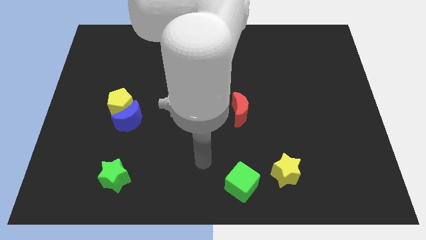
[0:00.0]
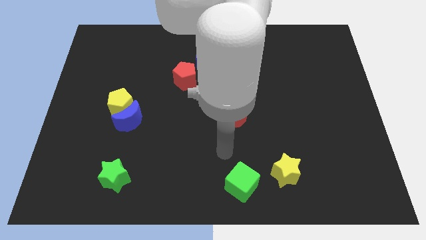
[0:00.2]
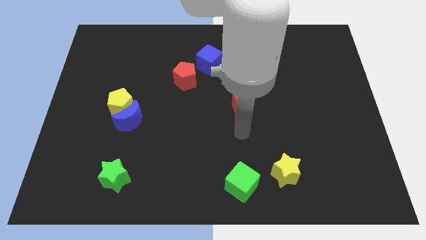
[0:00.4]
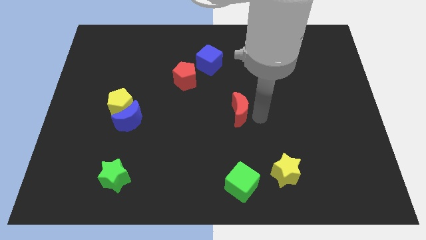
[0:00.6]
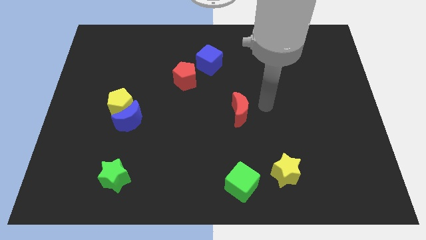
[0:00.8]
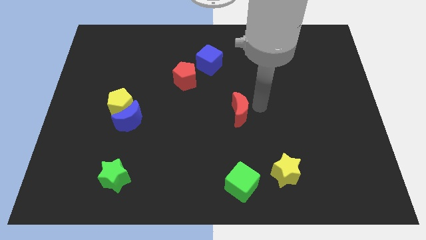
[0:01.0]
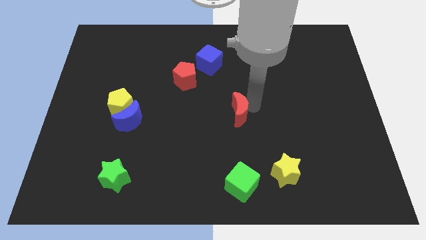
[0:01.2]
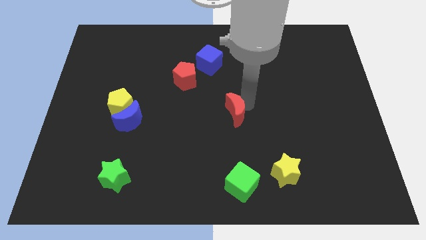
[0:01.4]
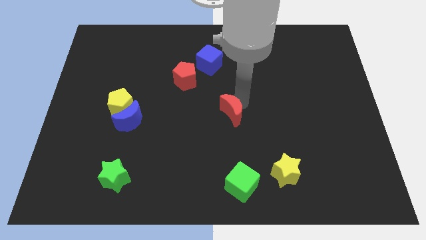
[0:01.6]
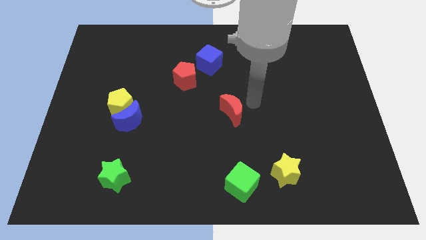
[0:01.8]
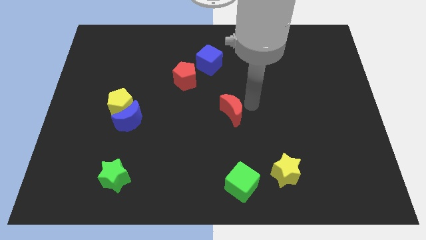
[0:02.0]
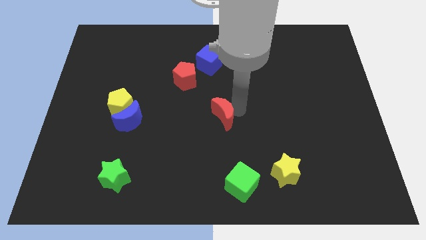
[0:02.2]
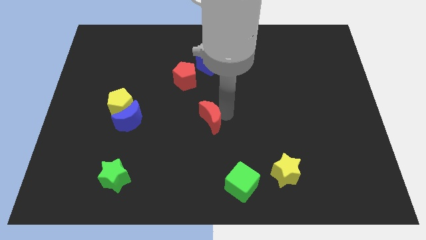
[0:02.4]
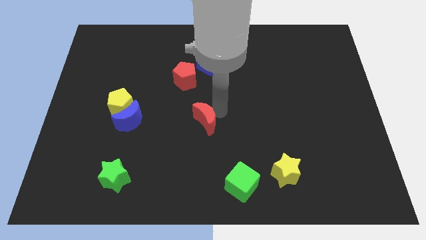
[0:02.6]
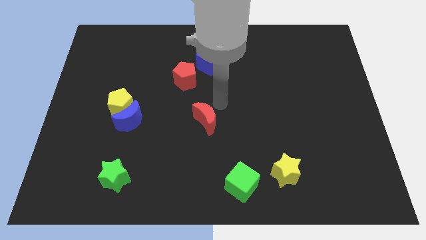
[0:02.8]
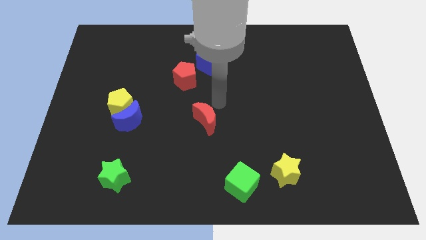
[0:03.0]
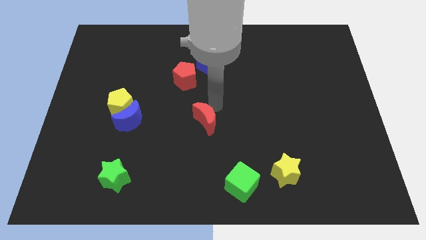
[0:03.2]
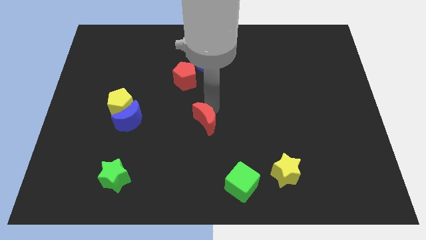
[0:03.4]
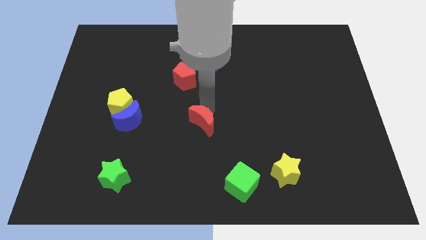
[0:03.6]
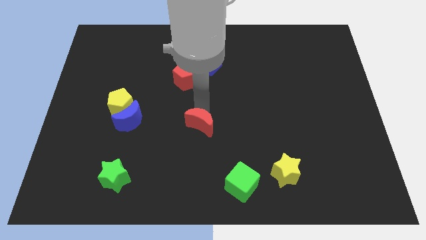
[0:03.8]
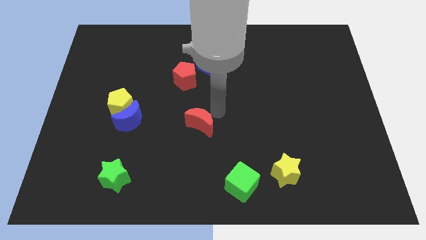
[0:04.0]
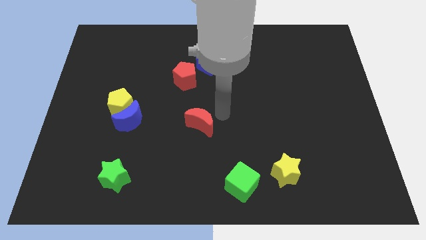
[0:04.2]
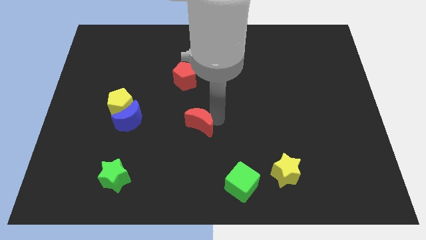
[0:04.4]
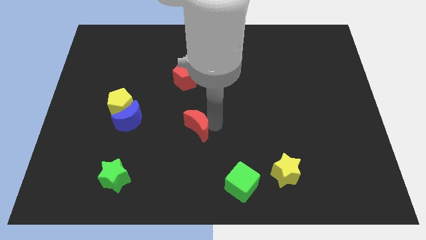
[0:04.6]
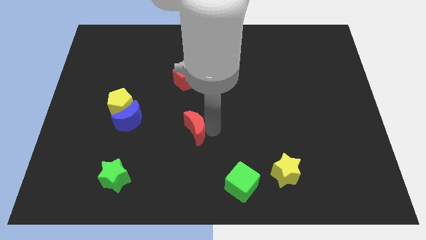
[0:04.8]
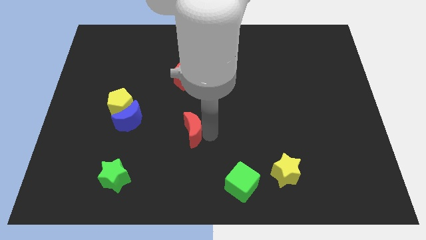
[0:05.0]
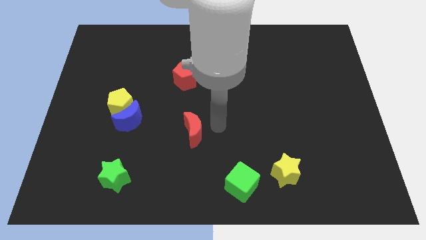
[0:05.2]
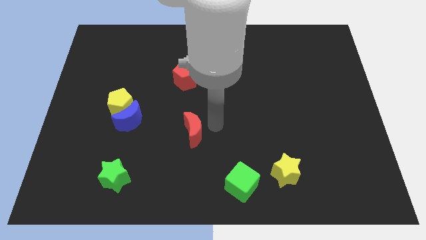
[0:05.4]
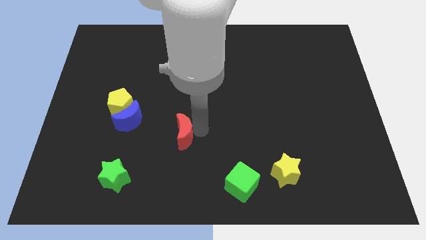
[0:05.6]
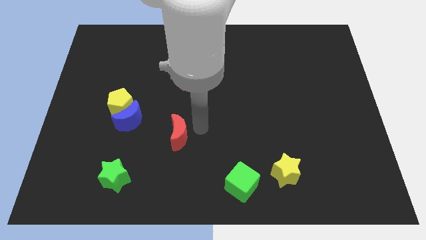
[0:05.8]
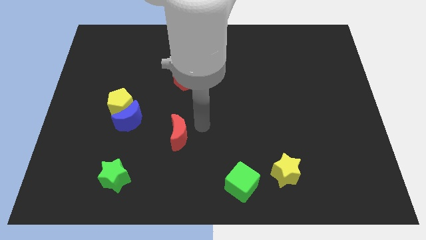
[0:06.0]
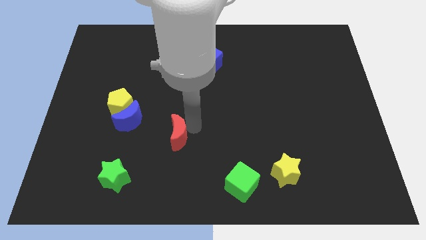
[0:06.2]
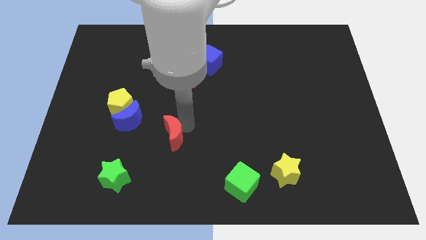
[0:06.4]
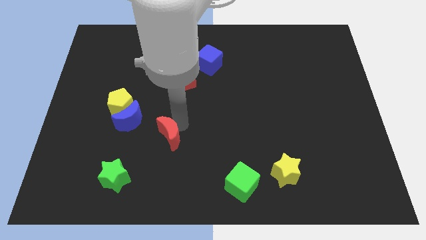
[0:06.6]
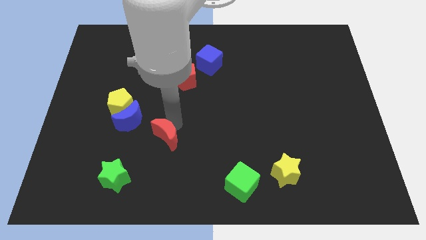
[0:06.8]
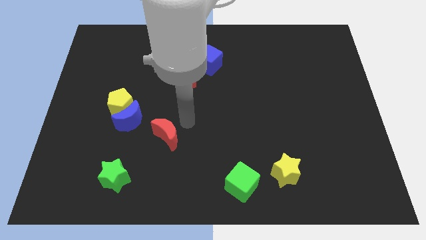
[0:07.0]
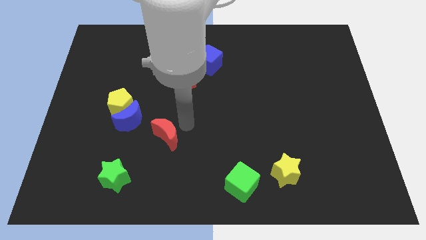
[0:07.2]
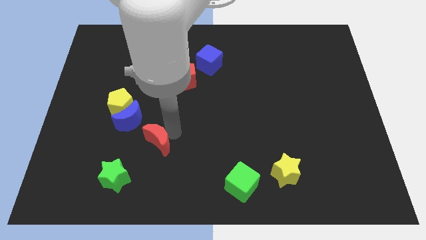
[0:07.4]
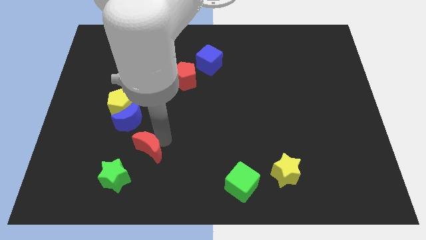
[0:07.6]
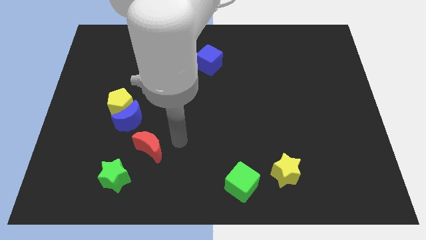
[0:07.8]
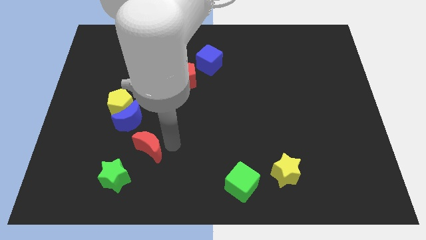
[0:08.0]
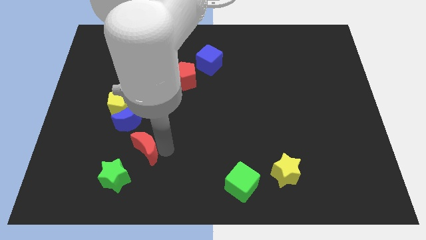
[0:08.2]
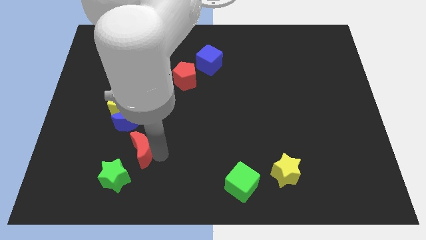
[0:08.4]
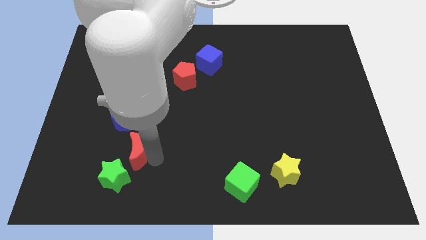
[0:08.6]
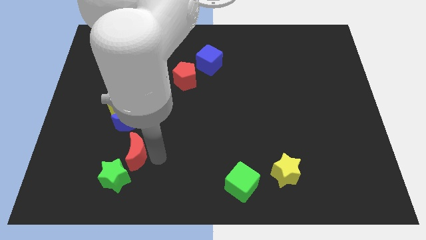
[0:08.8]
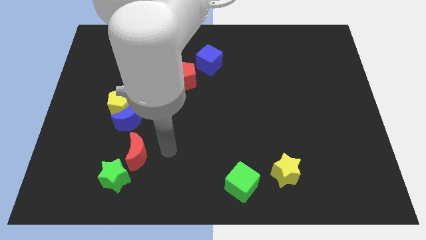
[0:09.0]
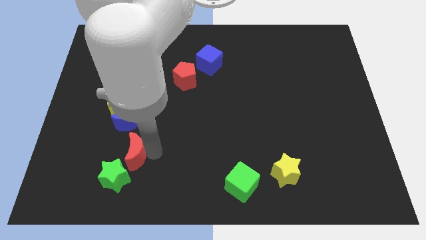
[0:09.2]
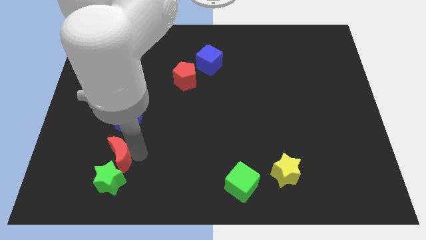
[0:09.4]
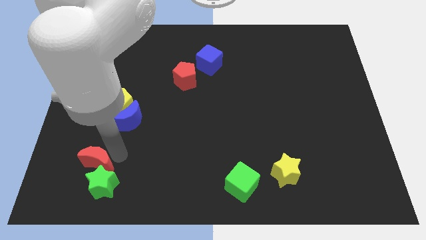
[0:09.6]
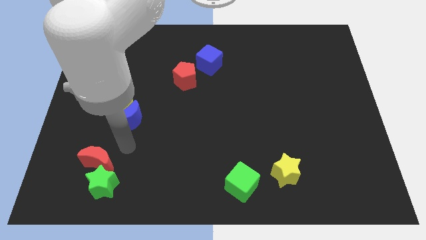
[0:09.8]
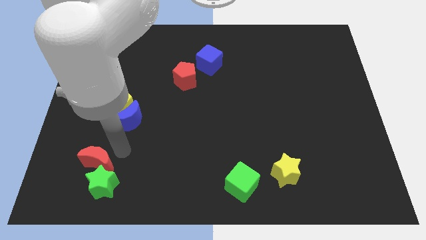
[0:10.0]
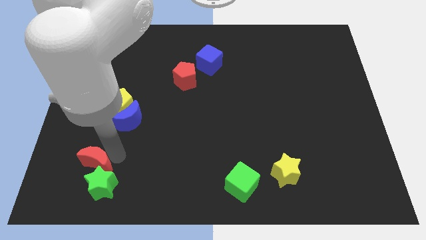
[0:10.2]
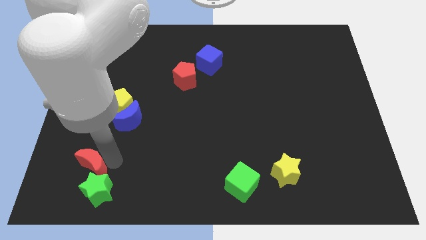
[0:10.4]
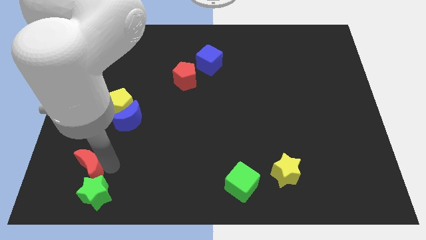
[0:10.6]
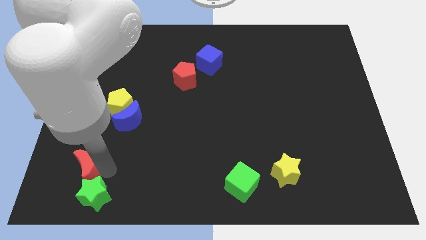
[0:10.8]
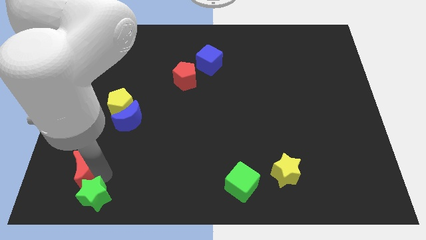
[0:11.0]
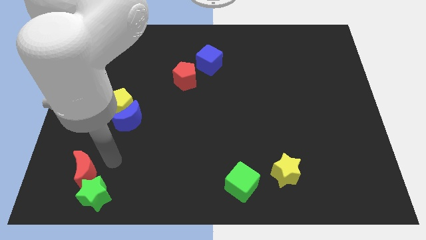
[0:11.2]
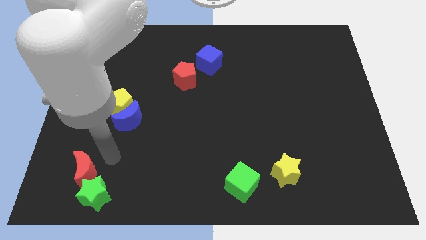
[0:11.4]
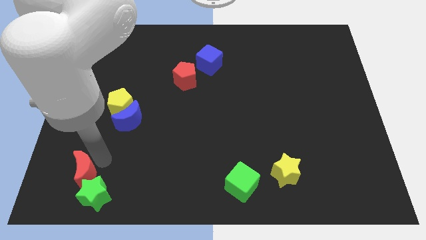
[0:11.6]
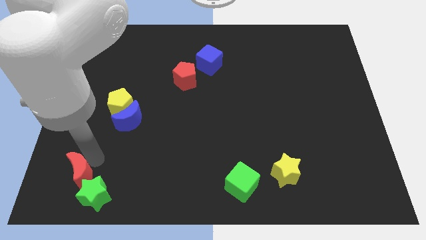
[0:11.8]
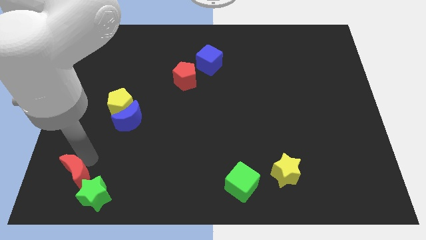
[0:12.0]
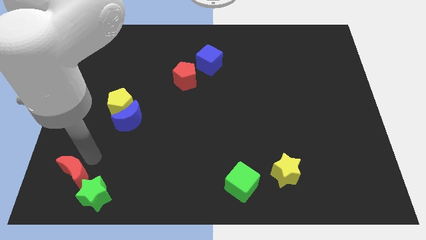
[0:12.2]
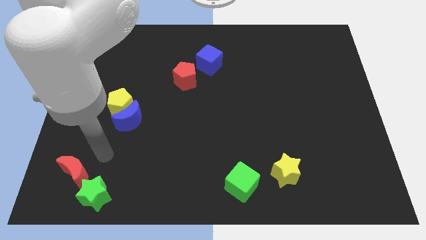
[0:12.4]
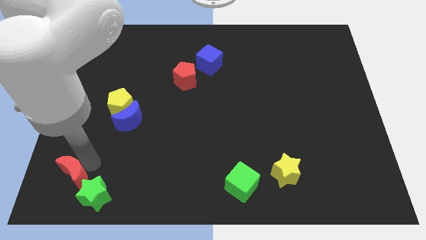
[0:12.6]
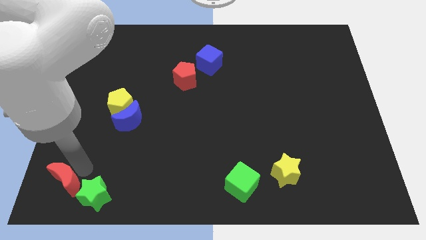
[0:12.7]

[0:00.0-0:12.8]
move the red moon to the lower left corner

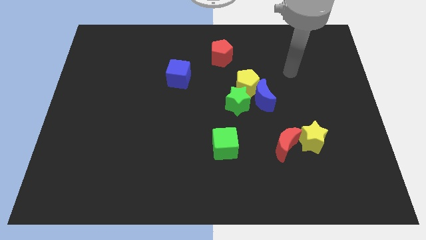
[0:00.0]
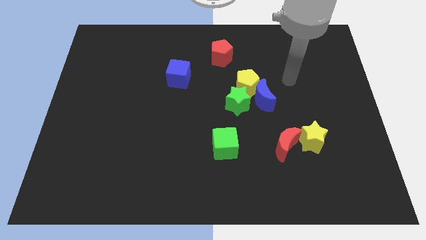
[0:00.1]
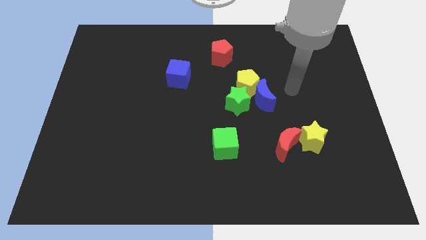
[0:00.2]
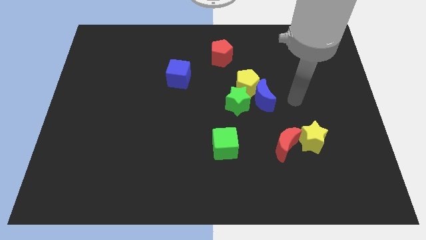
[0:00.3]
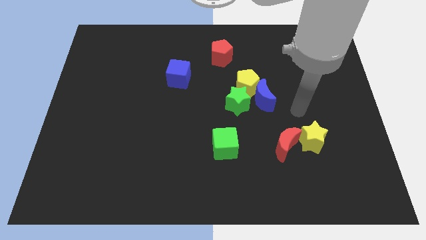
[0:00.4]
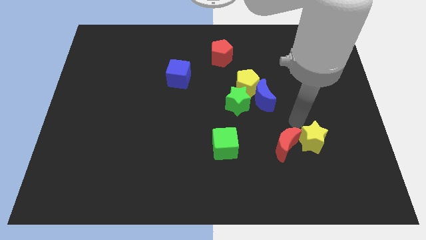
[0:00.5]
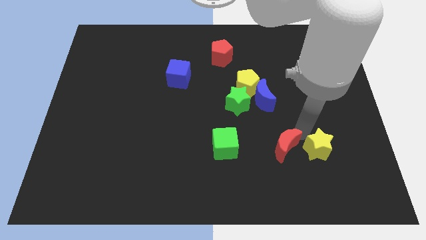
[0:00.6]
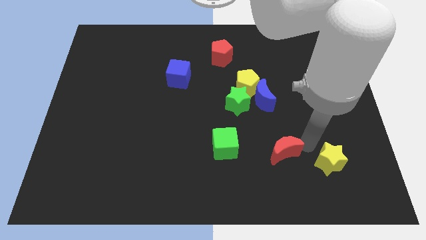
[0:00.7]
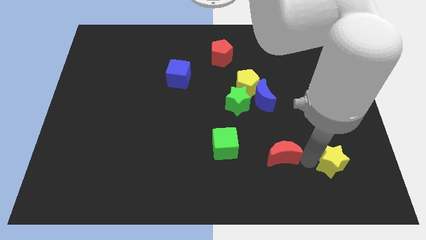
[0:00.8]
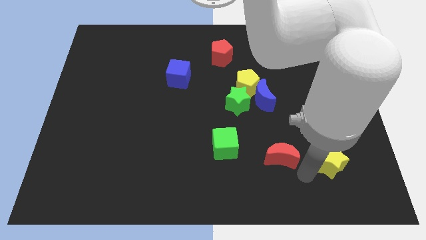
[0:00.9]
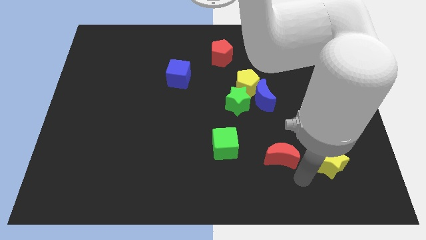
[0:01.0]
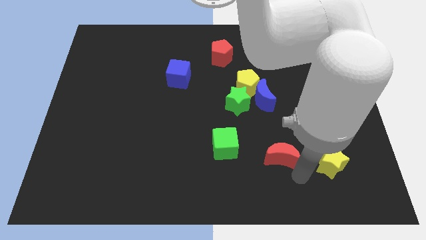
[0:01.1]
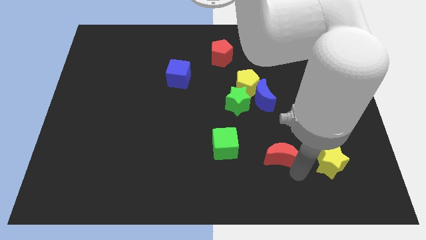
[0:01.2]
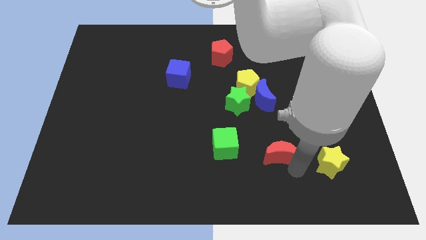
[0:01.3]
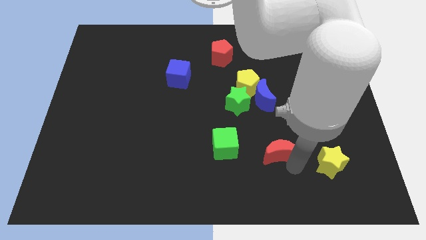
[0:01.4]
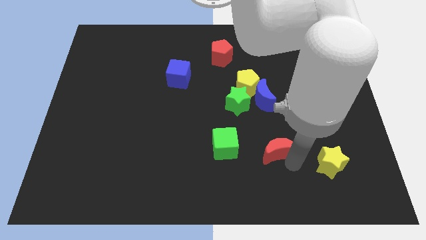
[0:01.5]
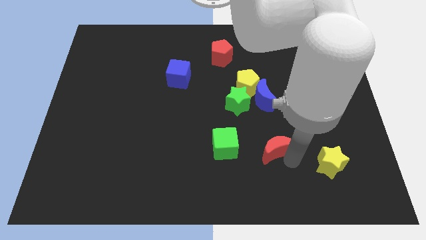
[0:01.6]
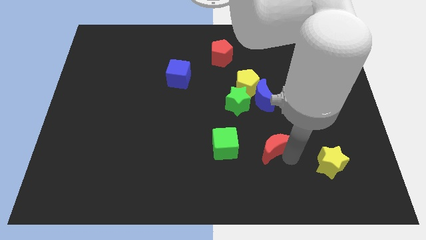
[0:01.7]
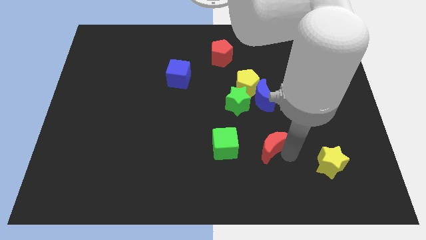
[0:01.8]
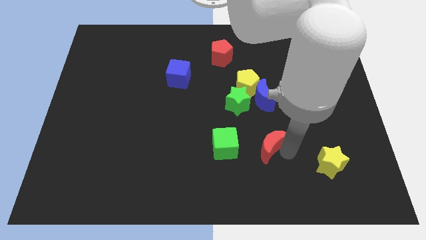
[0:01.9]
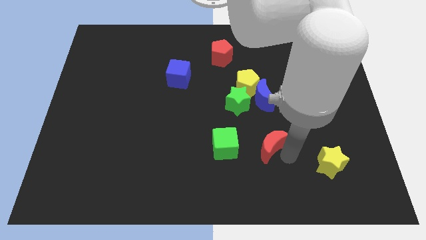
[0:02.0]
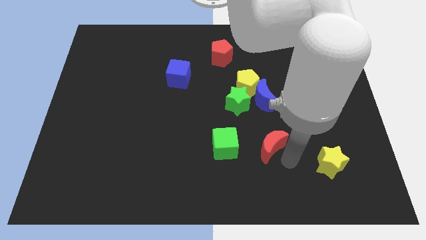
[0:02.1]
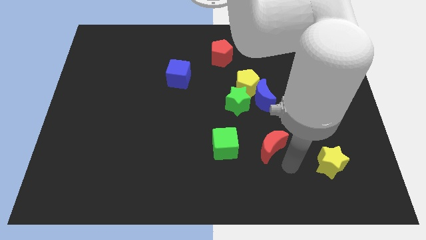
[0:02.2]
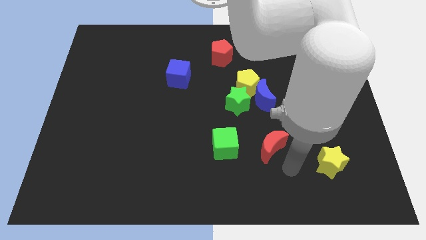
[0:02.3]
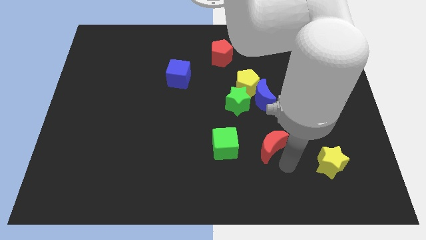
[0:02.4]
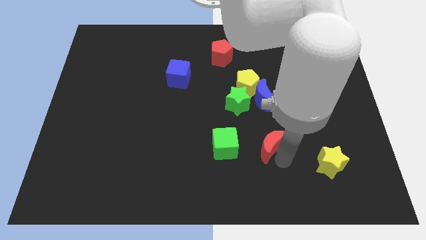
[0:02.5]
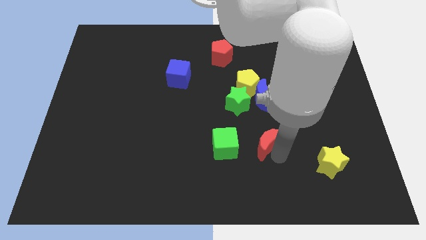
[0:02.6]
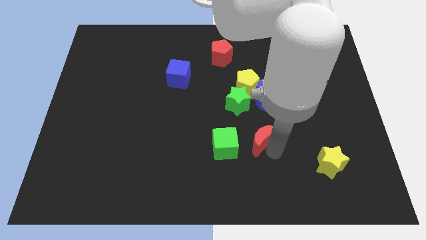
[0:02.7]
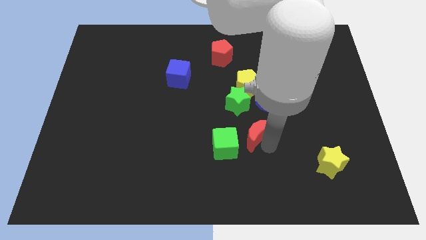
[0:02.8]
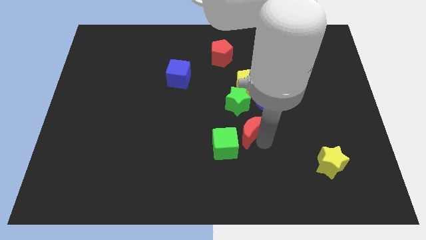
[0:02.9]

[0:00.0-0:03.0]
put the red moon to the middle of the board
